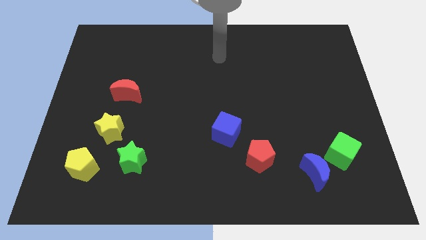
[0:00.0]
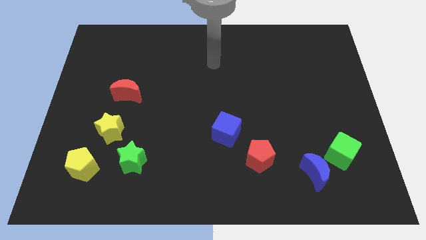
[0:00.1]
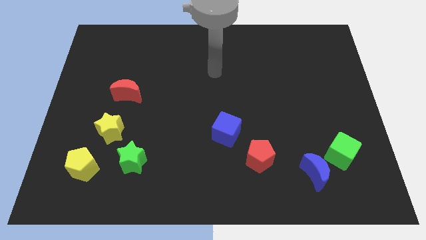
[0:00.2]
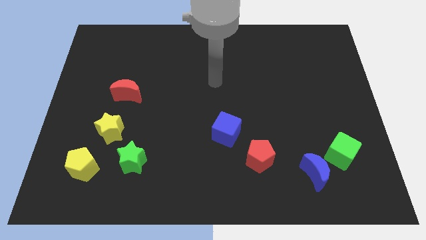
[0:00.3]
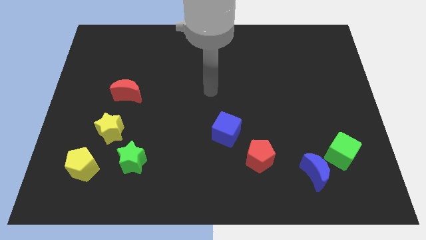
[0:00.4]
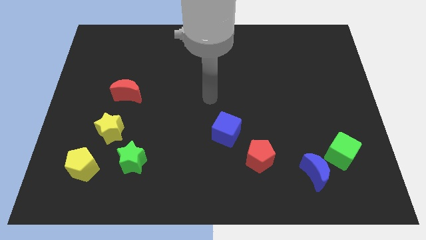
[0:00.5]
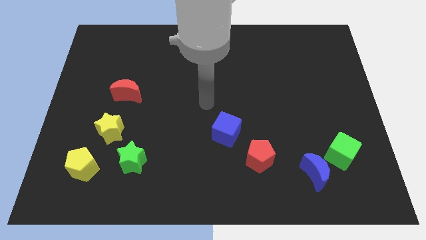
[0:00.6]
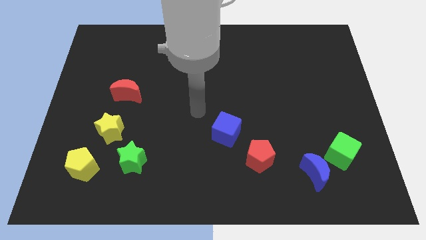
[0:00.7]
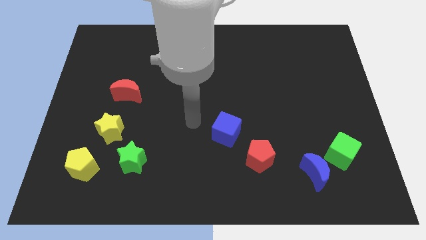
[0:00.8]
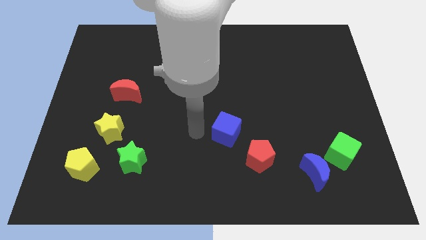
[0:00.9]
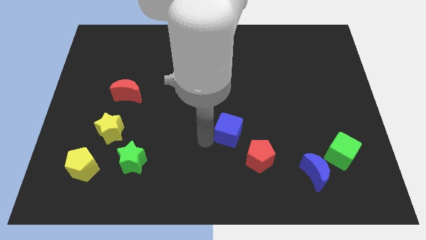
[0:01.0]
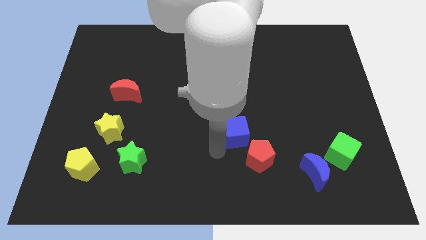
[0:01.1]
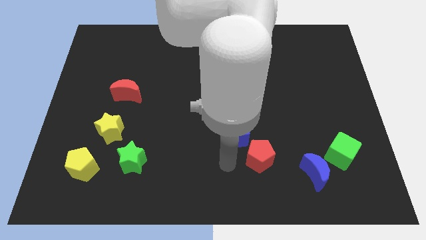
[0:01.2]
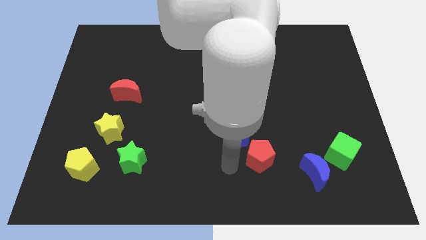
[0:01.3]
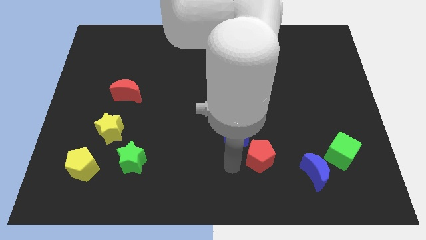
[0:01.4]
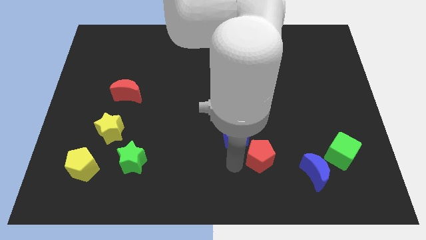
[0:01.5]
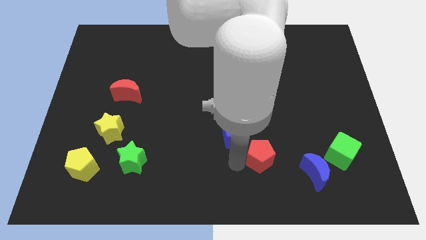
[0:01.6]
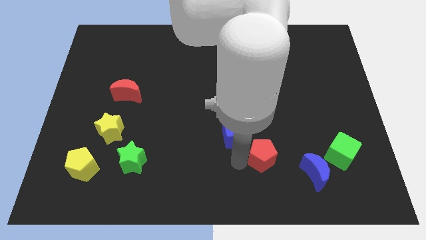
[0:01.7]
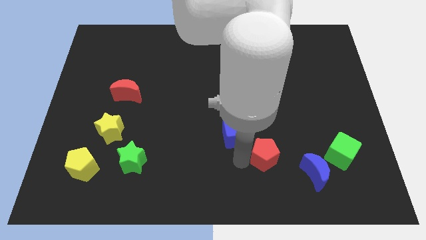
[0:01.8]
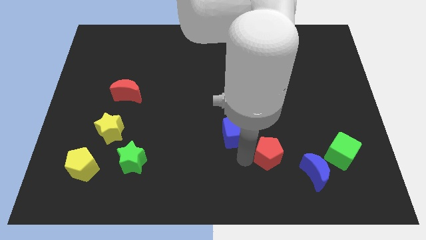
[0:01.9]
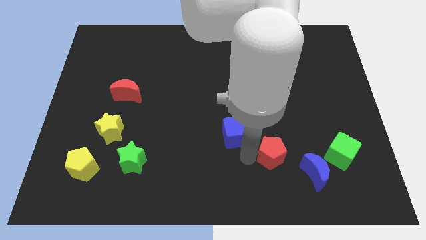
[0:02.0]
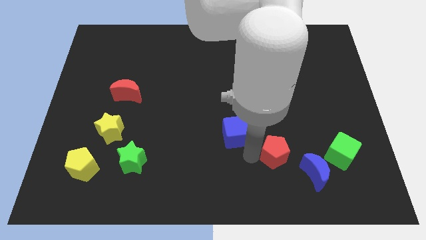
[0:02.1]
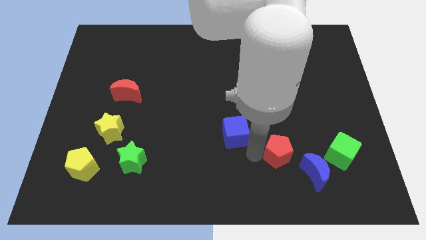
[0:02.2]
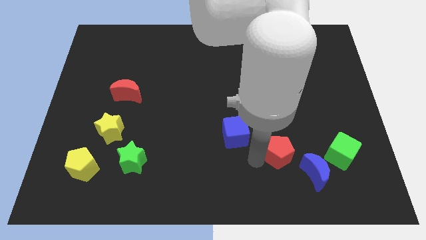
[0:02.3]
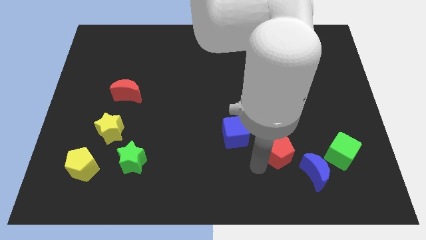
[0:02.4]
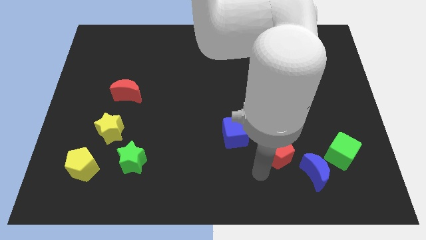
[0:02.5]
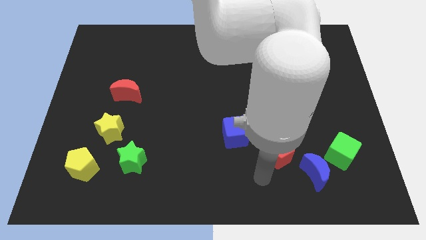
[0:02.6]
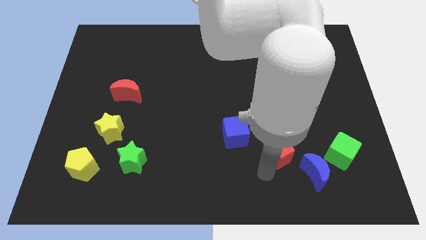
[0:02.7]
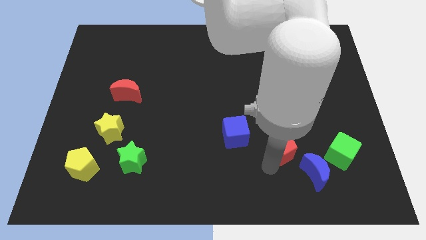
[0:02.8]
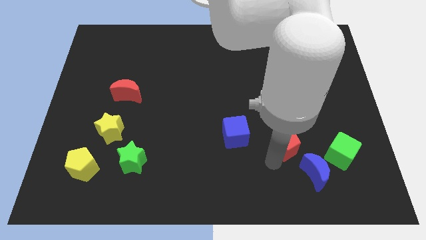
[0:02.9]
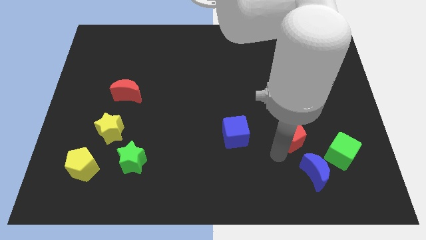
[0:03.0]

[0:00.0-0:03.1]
push the red pentagon up and then right a bit

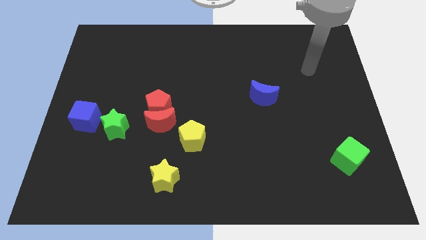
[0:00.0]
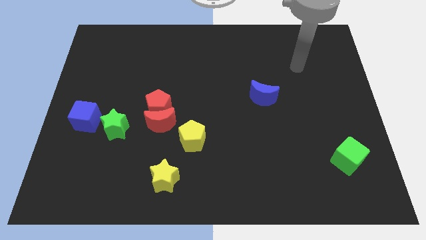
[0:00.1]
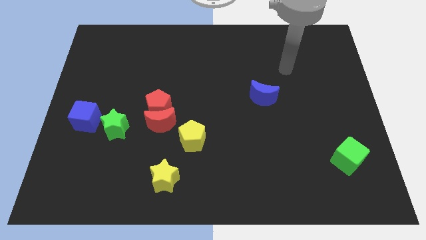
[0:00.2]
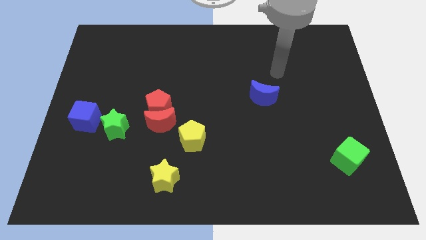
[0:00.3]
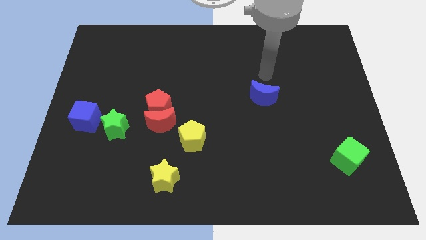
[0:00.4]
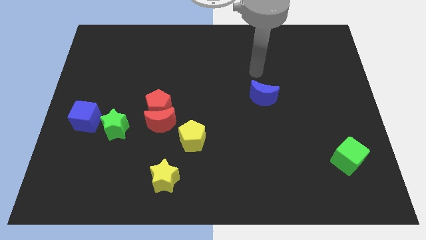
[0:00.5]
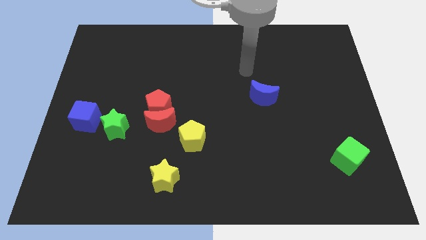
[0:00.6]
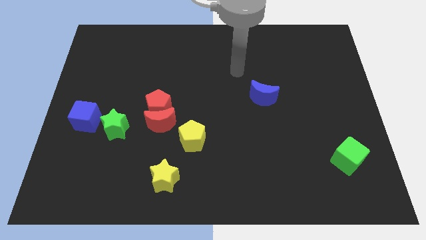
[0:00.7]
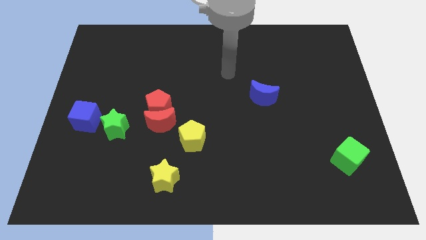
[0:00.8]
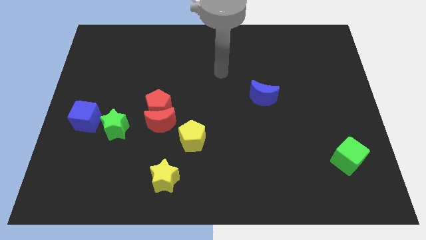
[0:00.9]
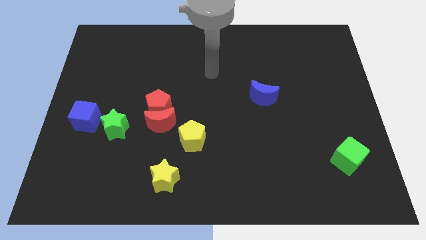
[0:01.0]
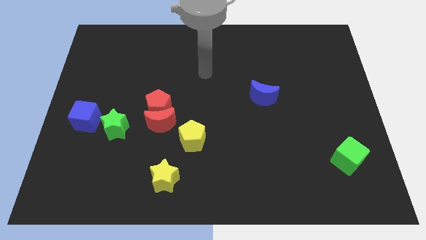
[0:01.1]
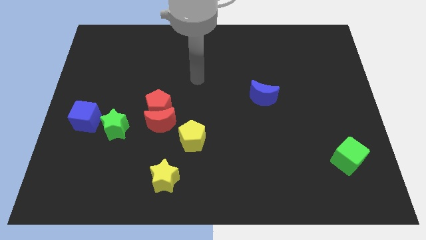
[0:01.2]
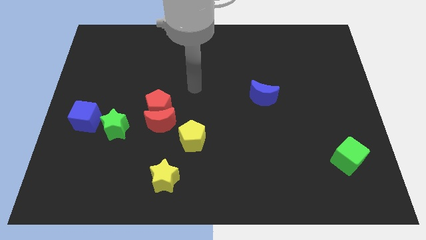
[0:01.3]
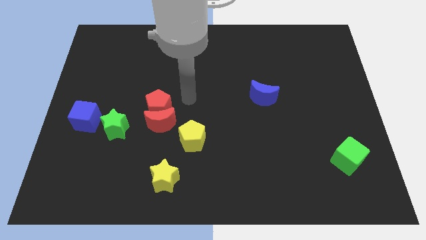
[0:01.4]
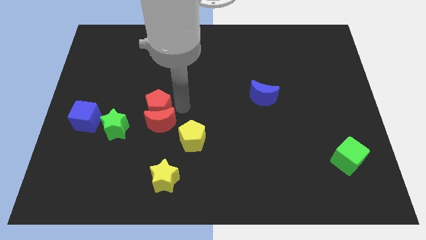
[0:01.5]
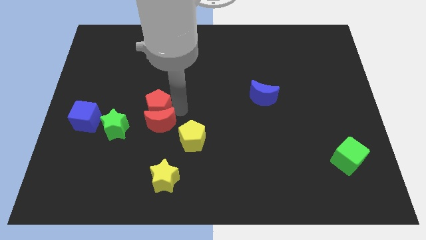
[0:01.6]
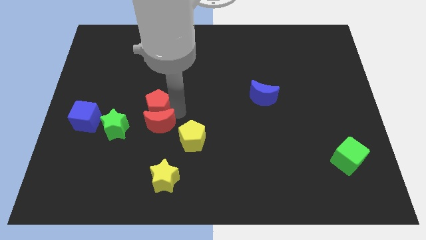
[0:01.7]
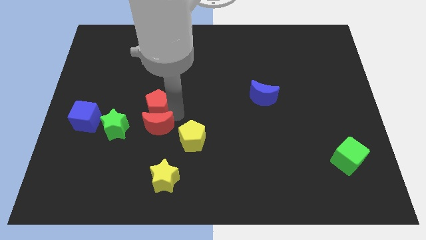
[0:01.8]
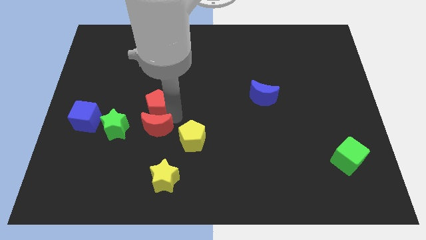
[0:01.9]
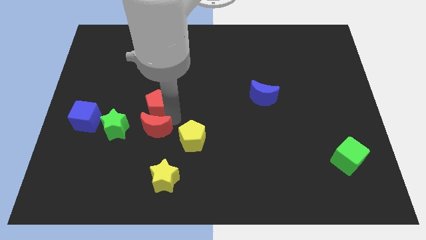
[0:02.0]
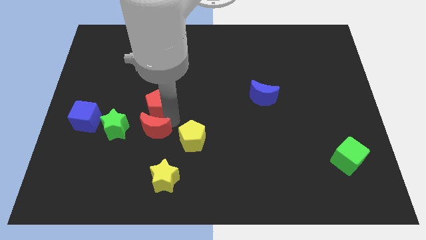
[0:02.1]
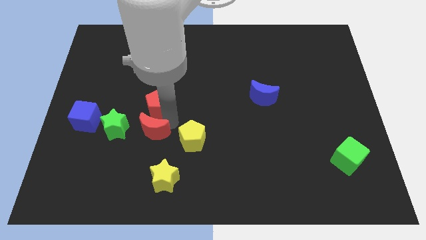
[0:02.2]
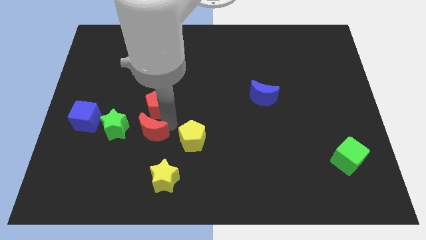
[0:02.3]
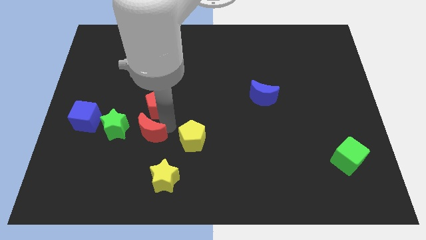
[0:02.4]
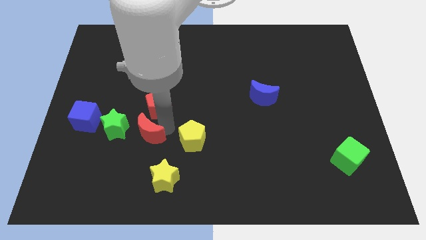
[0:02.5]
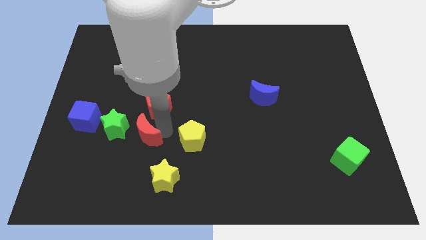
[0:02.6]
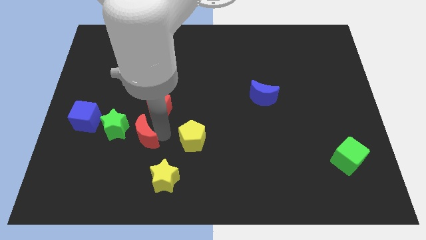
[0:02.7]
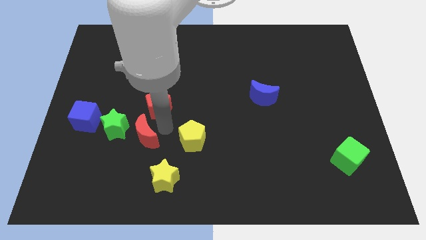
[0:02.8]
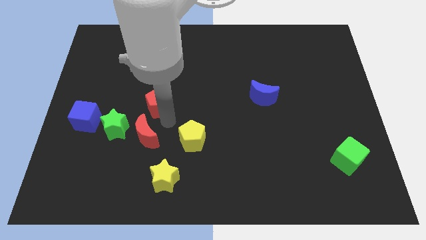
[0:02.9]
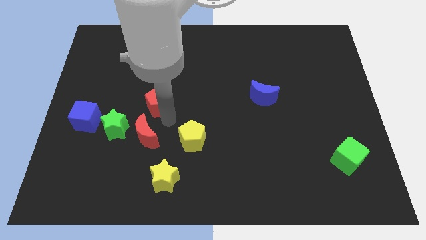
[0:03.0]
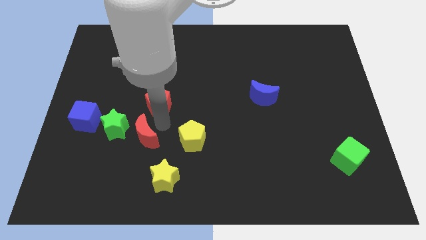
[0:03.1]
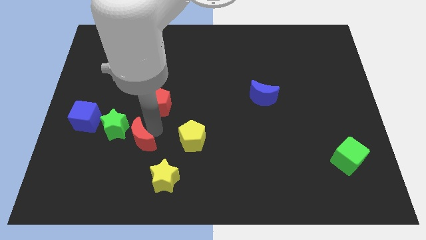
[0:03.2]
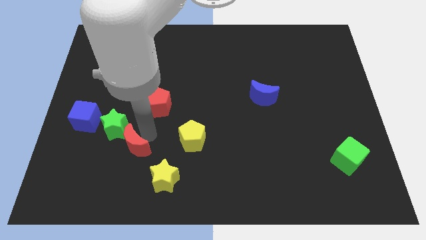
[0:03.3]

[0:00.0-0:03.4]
push the red moon a little downwards and then left

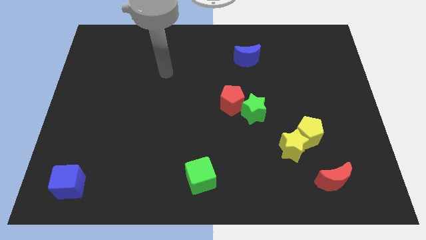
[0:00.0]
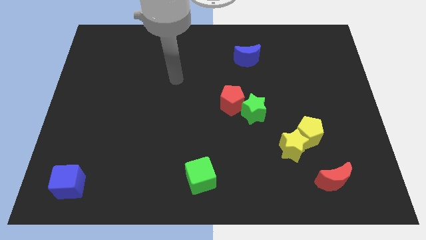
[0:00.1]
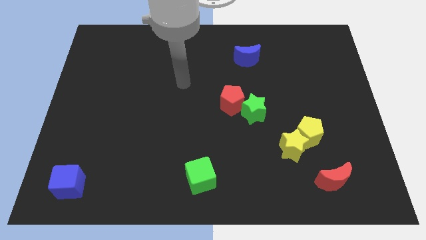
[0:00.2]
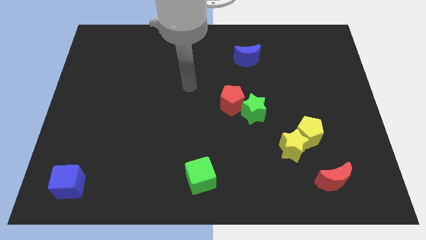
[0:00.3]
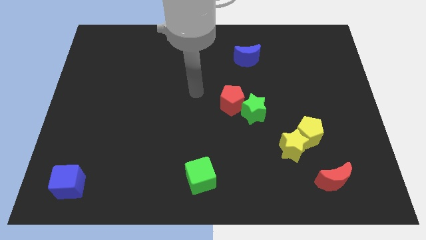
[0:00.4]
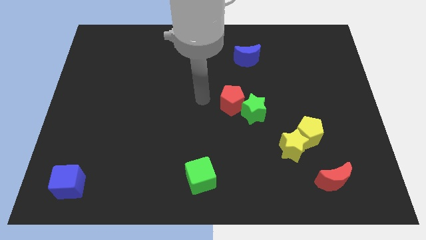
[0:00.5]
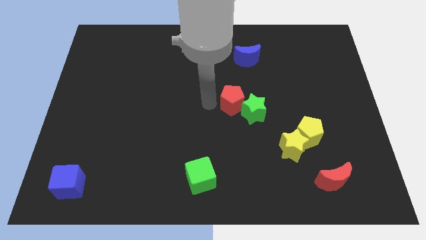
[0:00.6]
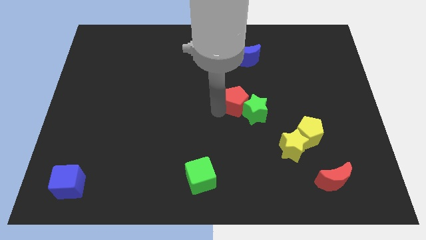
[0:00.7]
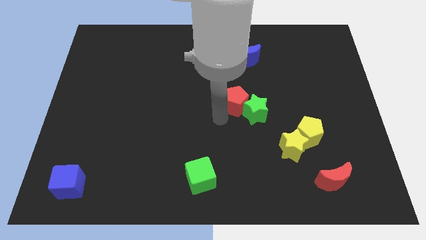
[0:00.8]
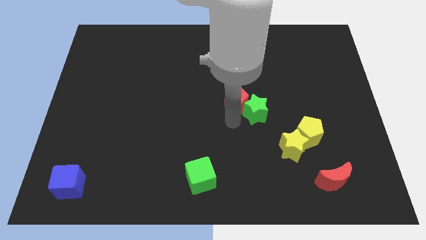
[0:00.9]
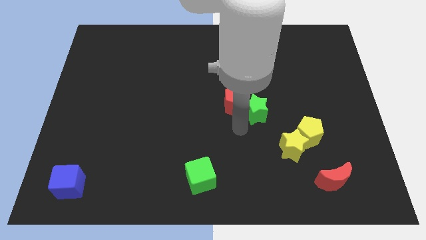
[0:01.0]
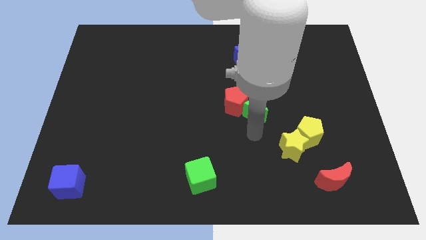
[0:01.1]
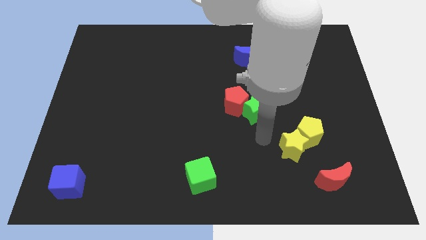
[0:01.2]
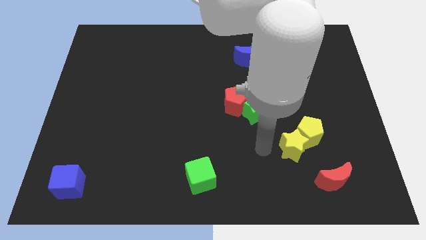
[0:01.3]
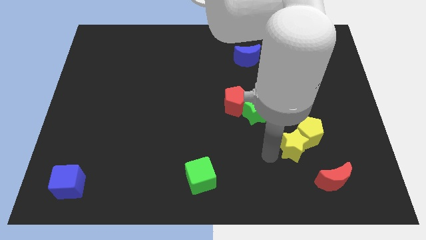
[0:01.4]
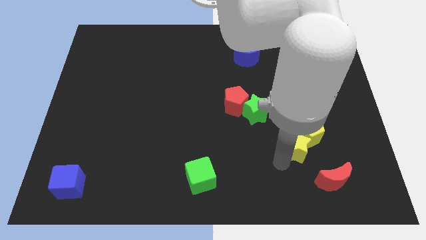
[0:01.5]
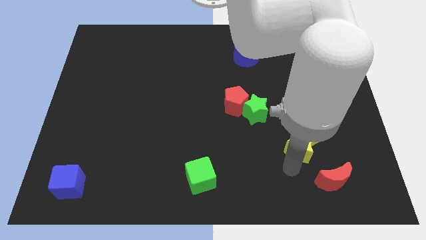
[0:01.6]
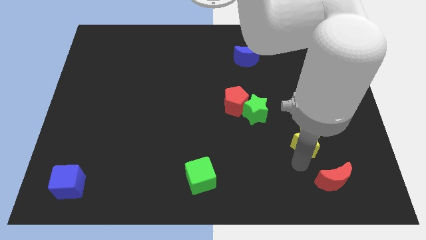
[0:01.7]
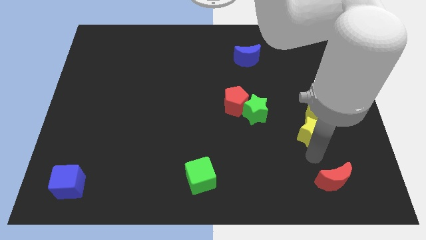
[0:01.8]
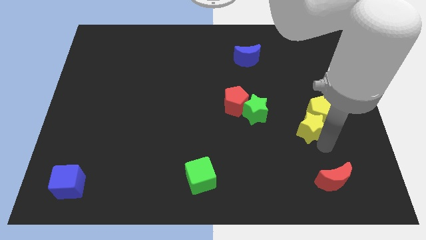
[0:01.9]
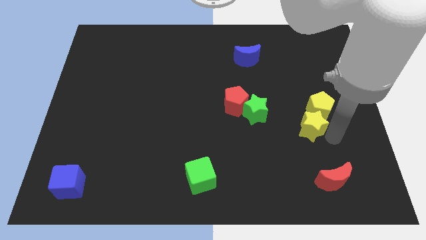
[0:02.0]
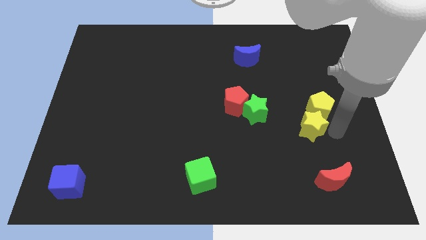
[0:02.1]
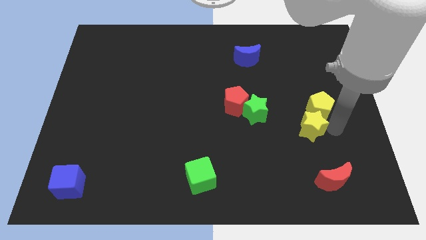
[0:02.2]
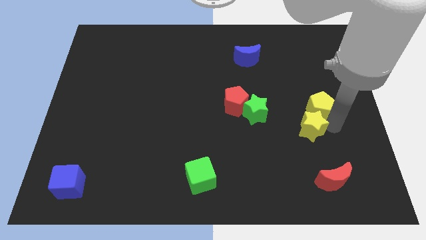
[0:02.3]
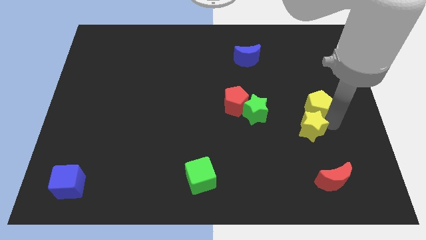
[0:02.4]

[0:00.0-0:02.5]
push the yellow pentagon upwards a little
